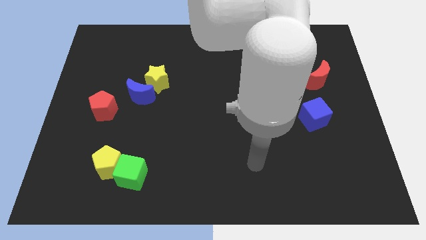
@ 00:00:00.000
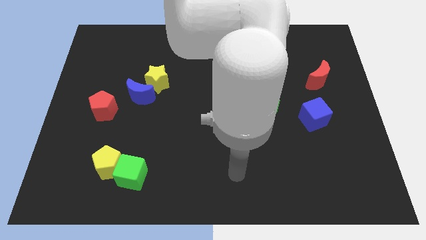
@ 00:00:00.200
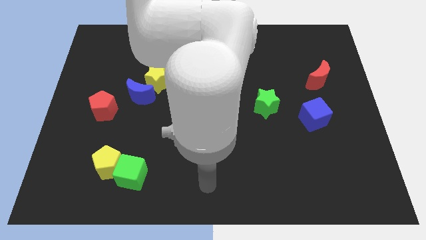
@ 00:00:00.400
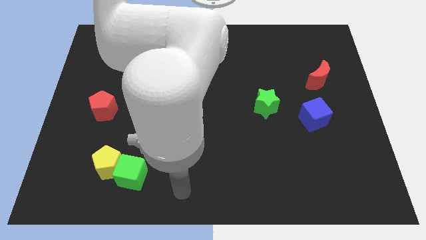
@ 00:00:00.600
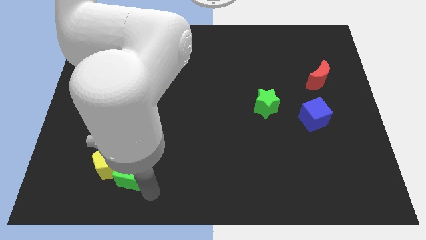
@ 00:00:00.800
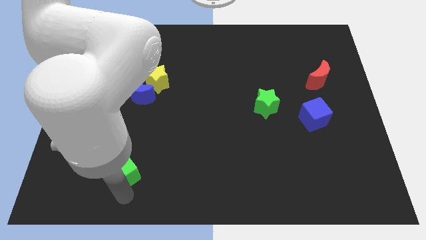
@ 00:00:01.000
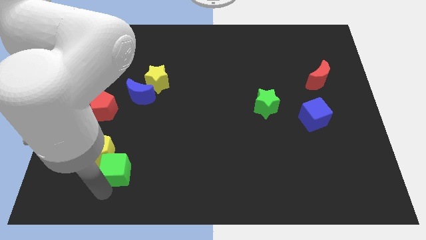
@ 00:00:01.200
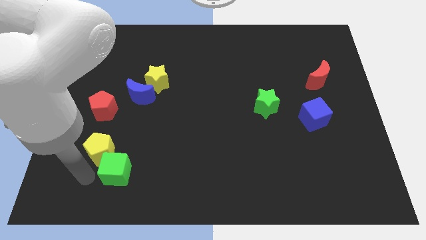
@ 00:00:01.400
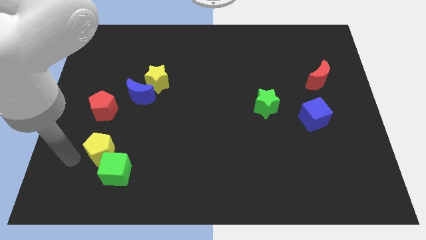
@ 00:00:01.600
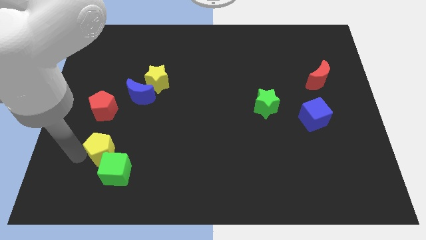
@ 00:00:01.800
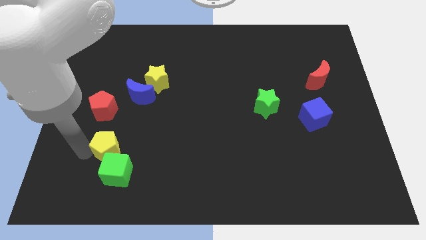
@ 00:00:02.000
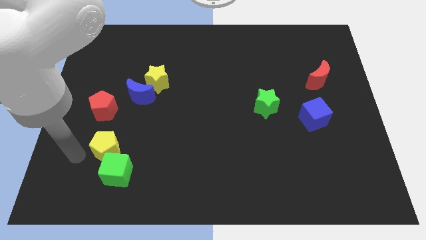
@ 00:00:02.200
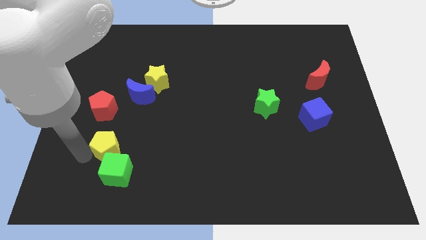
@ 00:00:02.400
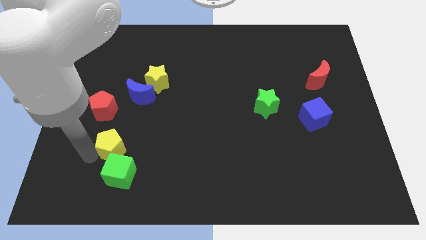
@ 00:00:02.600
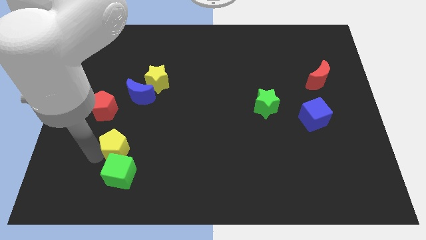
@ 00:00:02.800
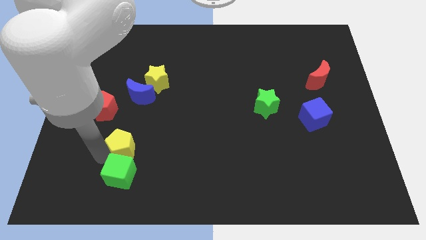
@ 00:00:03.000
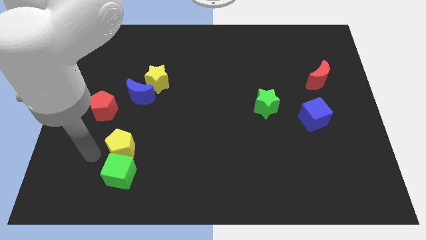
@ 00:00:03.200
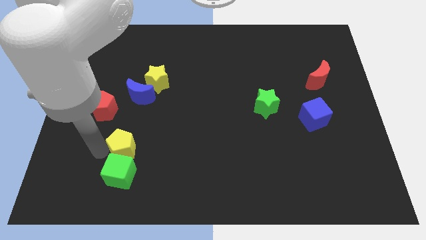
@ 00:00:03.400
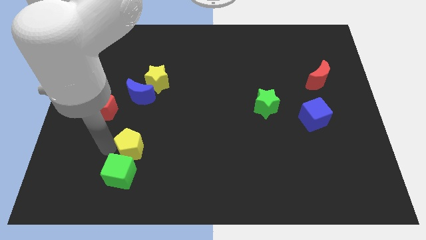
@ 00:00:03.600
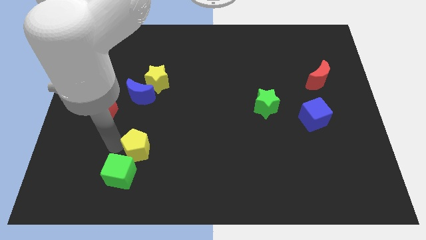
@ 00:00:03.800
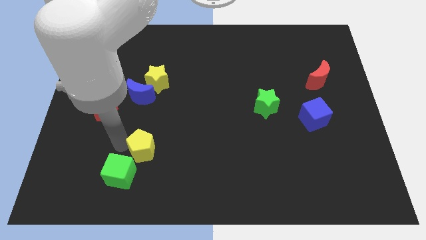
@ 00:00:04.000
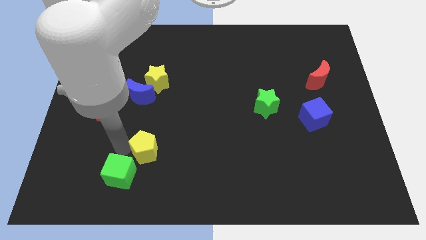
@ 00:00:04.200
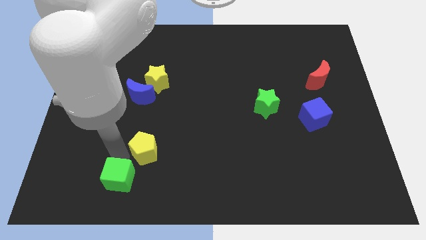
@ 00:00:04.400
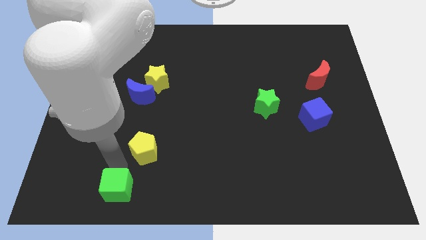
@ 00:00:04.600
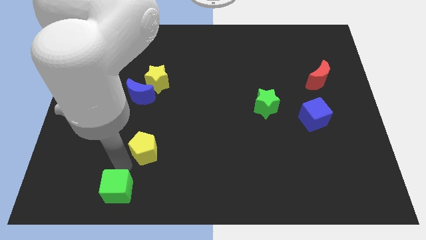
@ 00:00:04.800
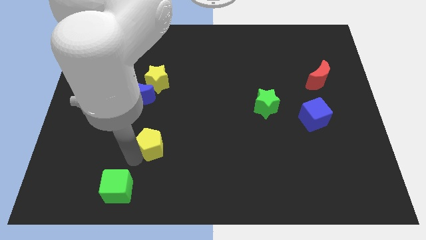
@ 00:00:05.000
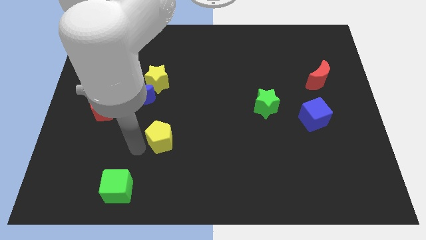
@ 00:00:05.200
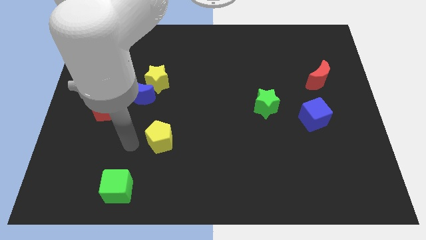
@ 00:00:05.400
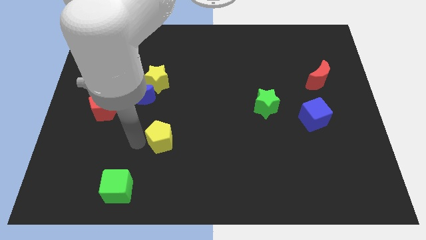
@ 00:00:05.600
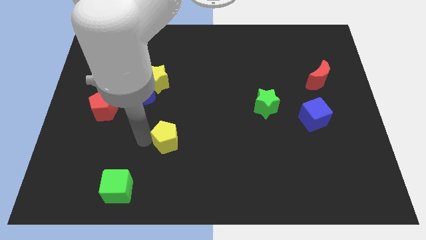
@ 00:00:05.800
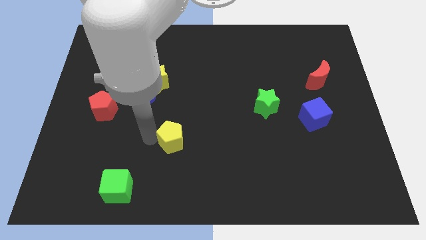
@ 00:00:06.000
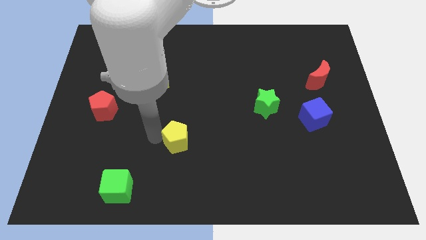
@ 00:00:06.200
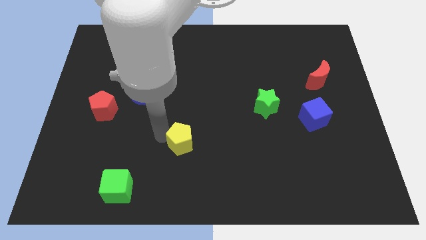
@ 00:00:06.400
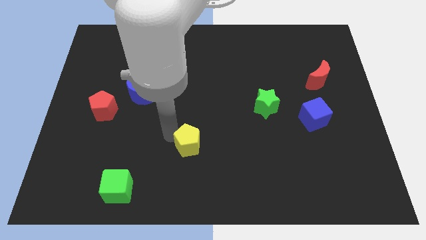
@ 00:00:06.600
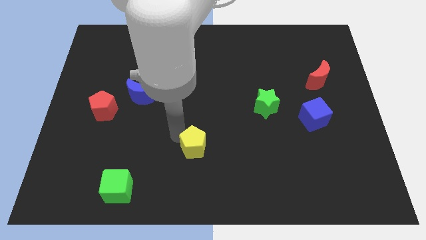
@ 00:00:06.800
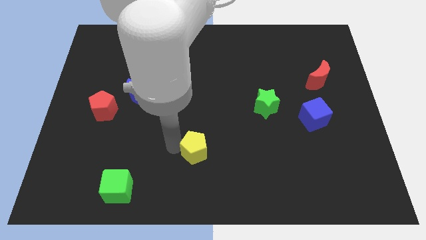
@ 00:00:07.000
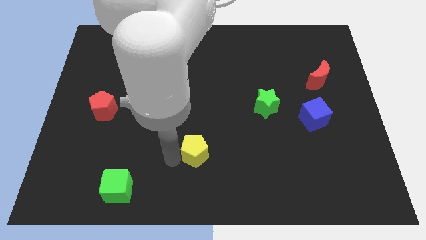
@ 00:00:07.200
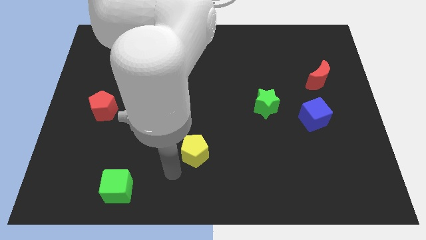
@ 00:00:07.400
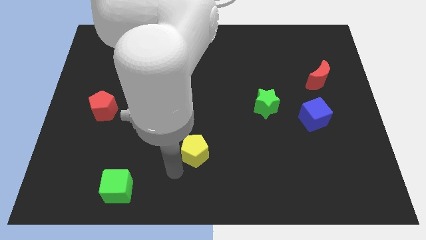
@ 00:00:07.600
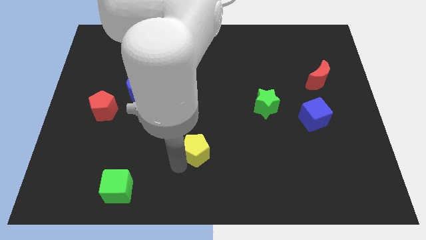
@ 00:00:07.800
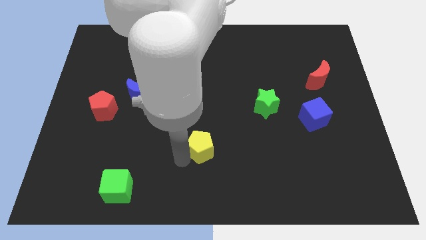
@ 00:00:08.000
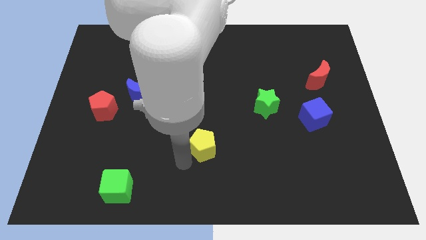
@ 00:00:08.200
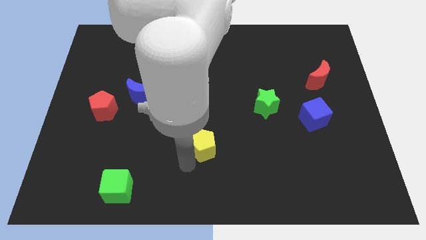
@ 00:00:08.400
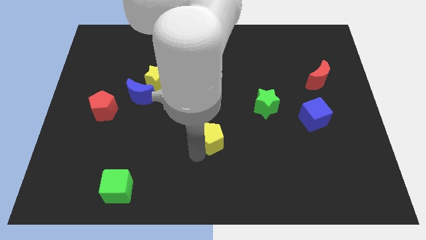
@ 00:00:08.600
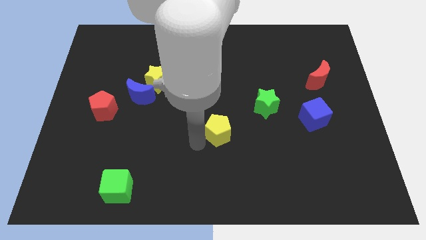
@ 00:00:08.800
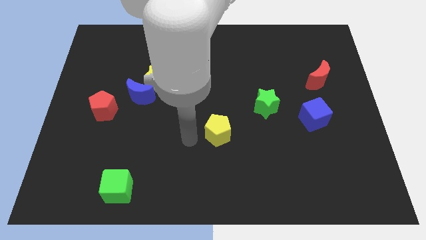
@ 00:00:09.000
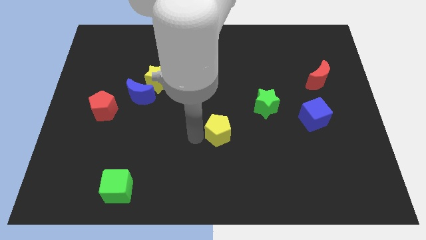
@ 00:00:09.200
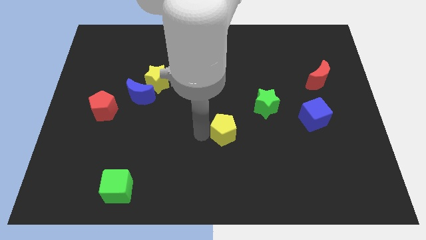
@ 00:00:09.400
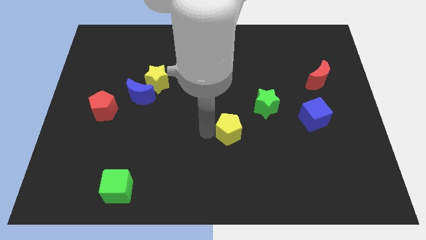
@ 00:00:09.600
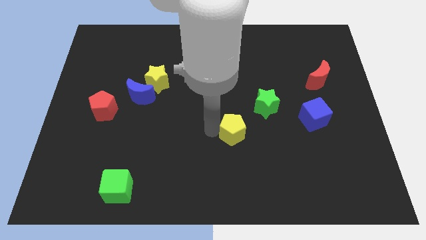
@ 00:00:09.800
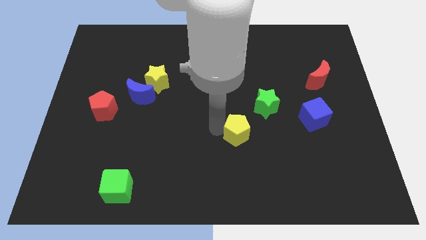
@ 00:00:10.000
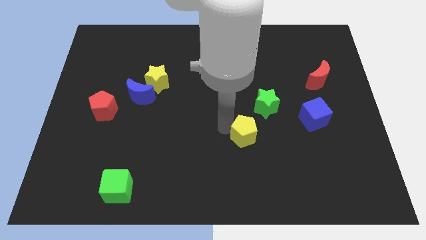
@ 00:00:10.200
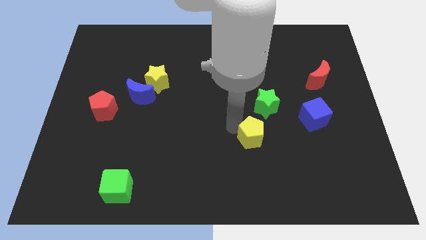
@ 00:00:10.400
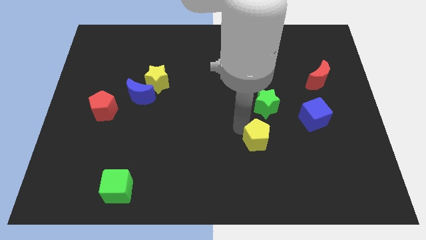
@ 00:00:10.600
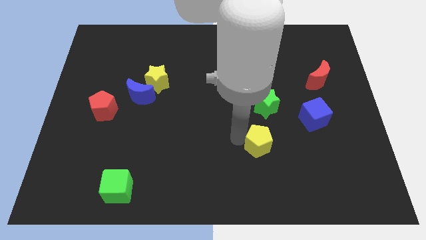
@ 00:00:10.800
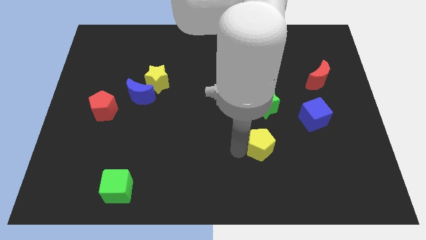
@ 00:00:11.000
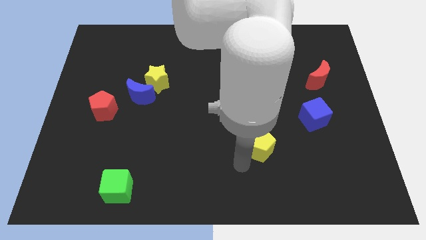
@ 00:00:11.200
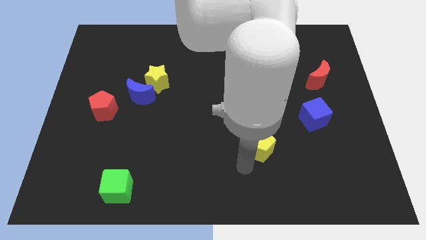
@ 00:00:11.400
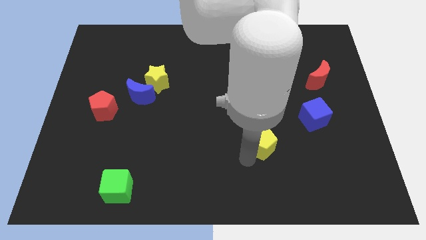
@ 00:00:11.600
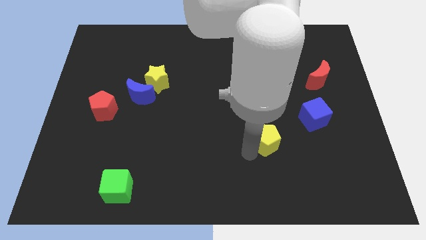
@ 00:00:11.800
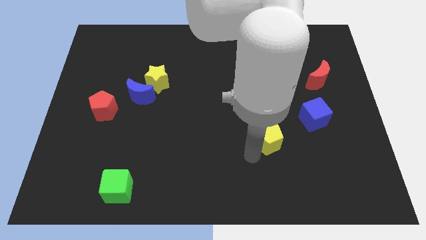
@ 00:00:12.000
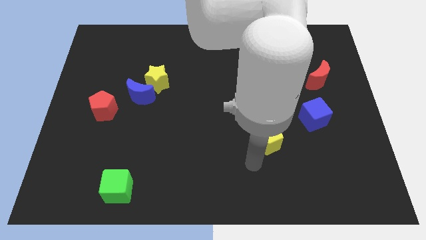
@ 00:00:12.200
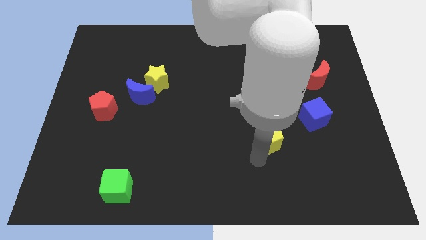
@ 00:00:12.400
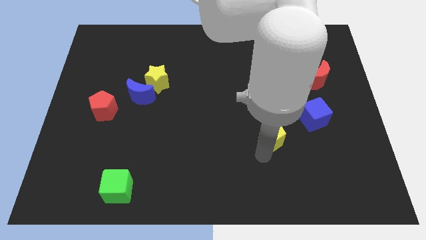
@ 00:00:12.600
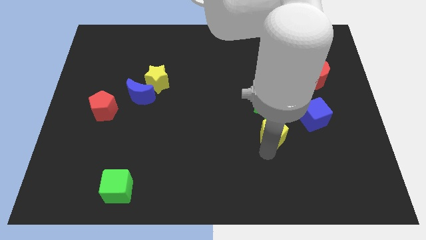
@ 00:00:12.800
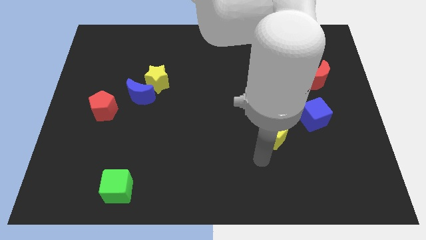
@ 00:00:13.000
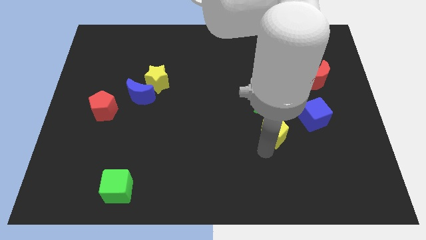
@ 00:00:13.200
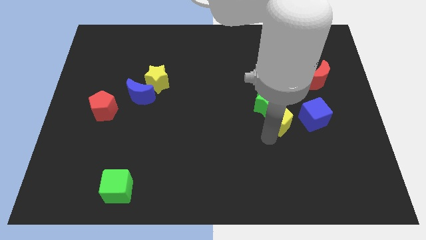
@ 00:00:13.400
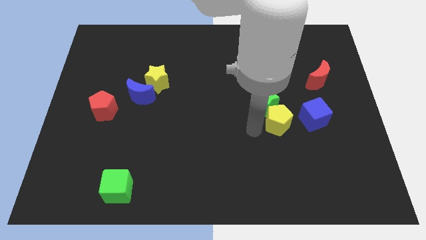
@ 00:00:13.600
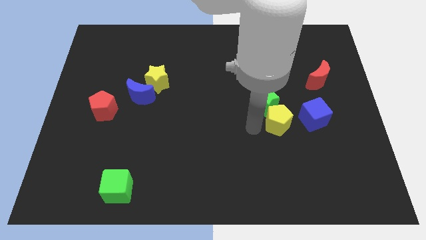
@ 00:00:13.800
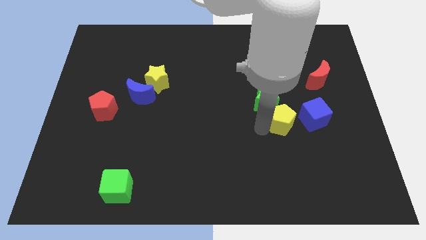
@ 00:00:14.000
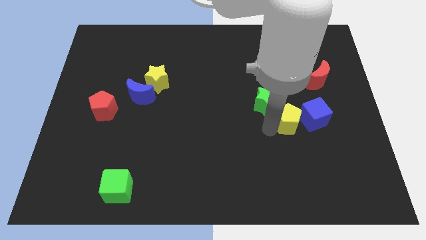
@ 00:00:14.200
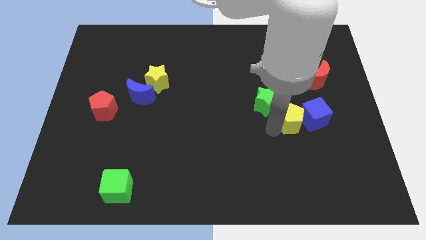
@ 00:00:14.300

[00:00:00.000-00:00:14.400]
put the yellow pentagon towards the blue cube

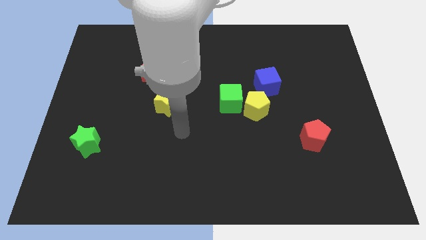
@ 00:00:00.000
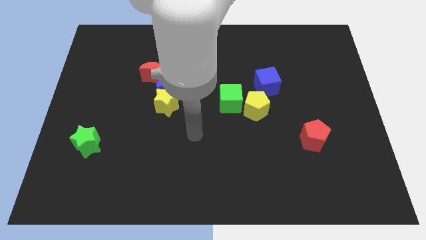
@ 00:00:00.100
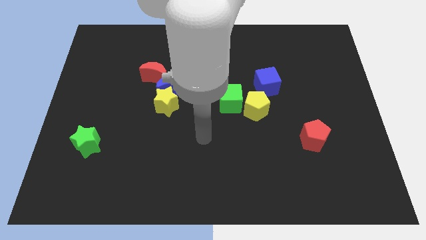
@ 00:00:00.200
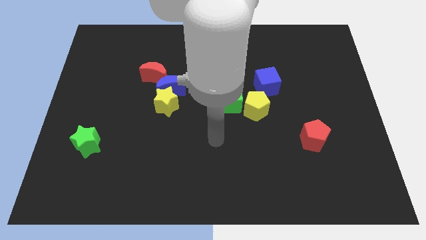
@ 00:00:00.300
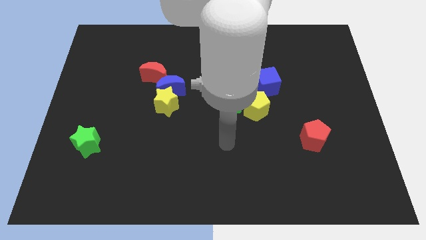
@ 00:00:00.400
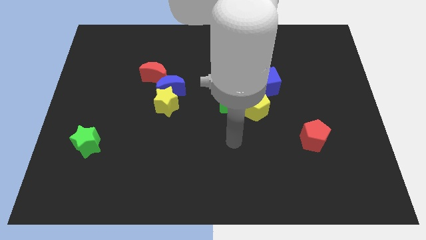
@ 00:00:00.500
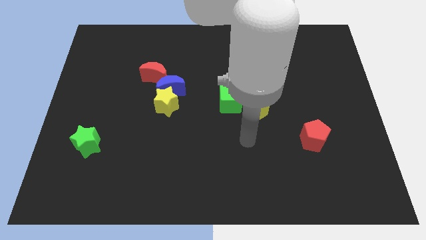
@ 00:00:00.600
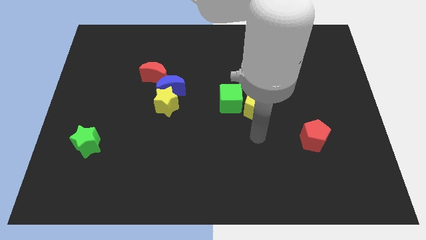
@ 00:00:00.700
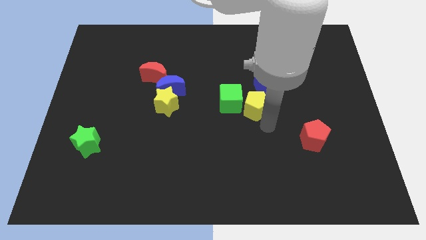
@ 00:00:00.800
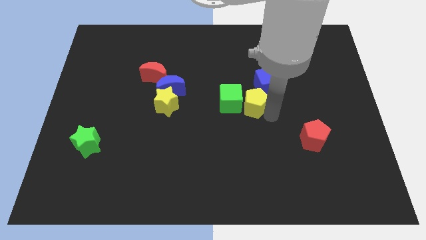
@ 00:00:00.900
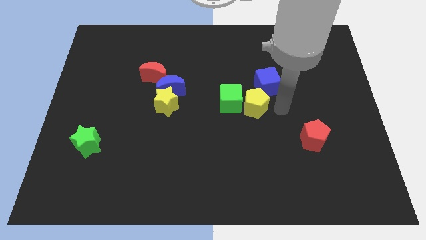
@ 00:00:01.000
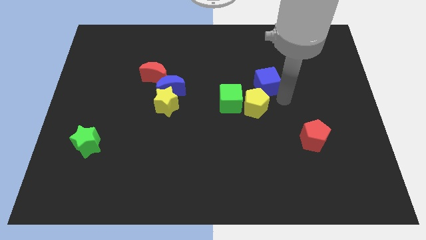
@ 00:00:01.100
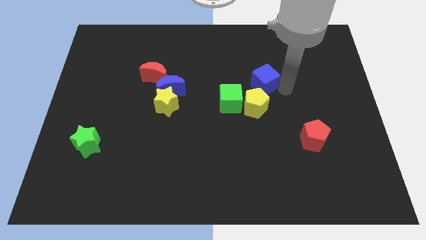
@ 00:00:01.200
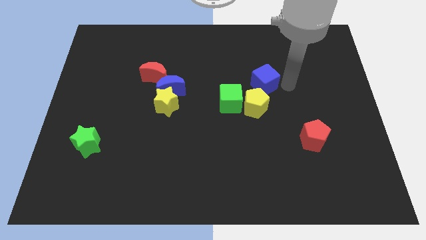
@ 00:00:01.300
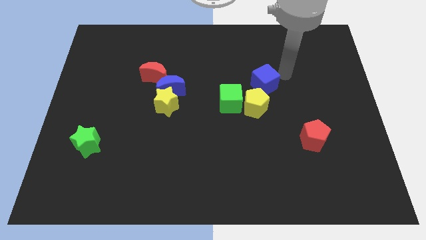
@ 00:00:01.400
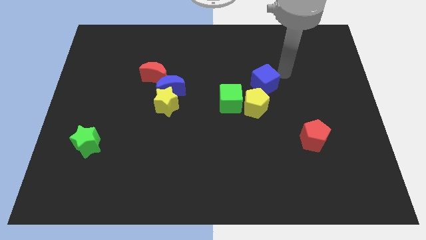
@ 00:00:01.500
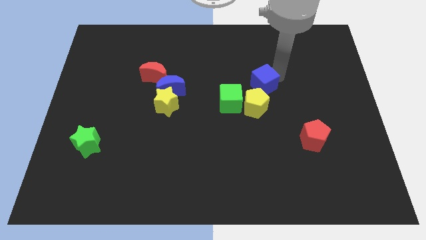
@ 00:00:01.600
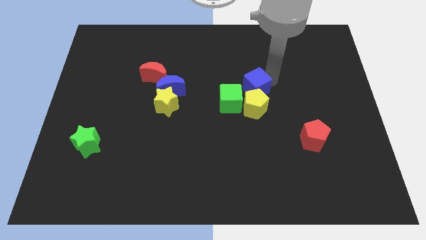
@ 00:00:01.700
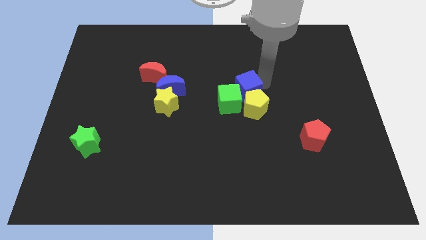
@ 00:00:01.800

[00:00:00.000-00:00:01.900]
move the blue cube close to the green cube
